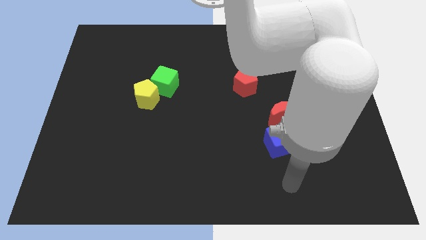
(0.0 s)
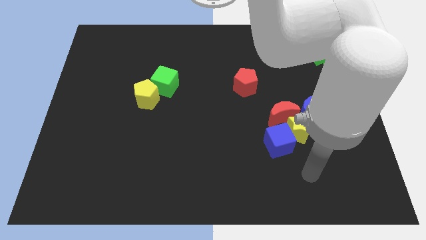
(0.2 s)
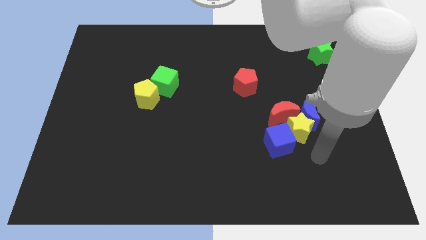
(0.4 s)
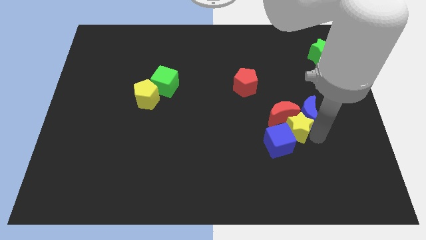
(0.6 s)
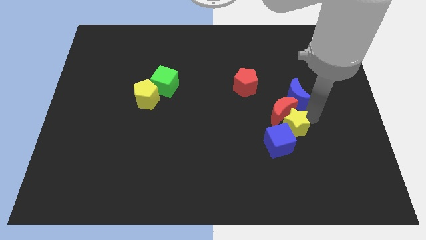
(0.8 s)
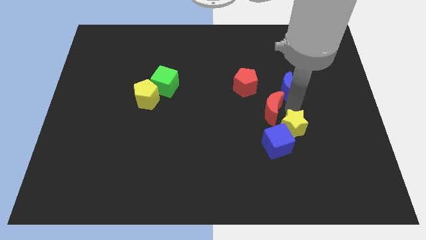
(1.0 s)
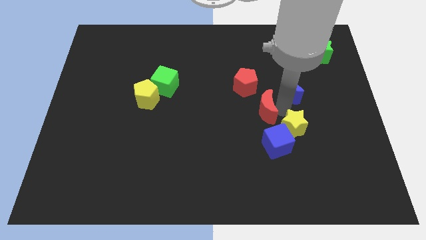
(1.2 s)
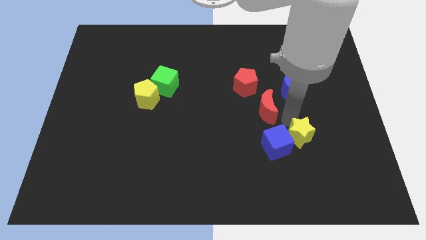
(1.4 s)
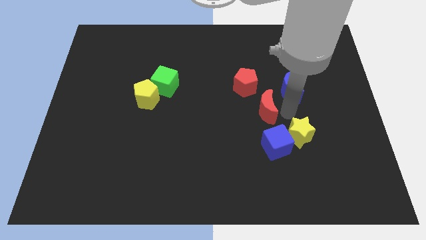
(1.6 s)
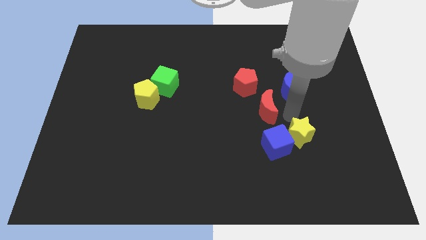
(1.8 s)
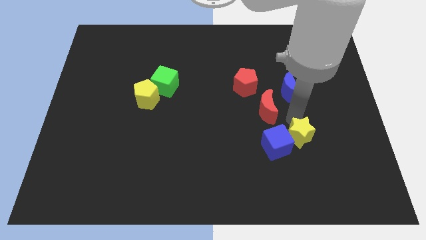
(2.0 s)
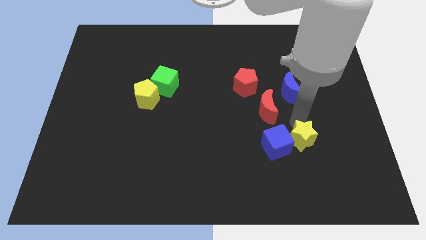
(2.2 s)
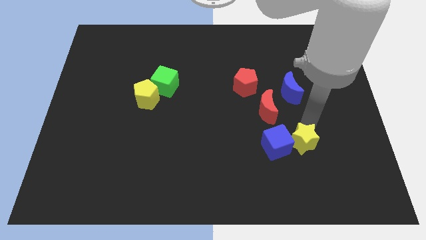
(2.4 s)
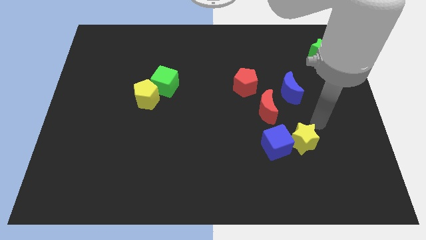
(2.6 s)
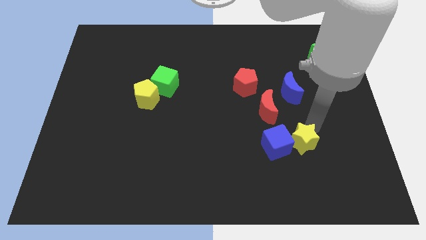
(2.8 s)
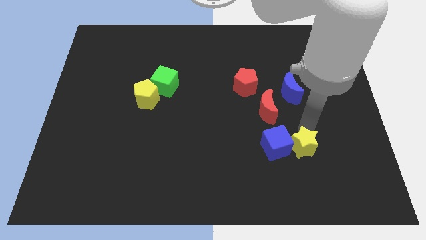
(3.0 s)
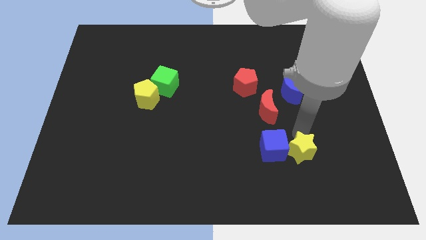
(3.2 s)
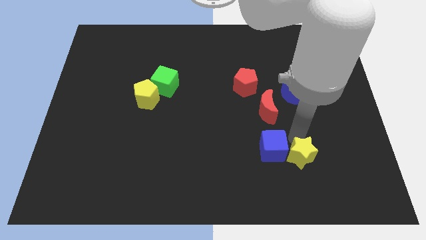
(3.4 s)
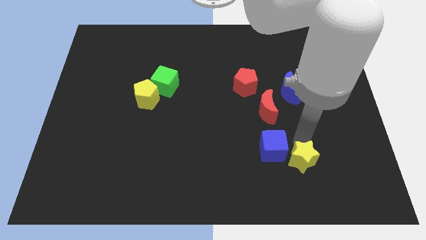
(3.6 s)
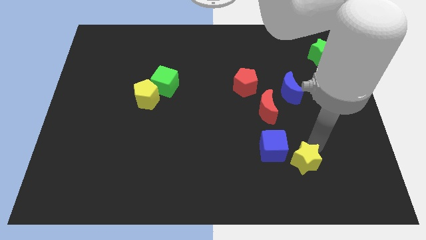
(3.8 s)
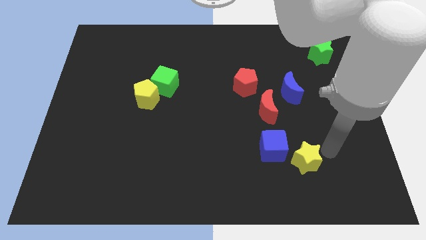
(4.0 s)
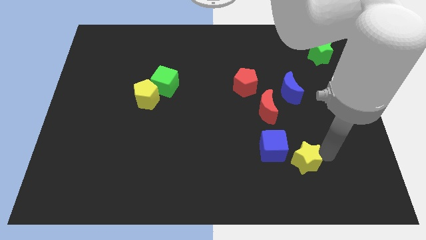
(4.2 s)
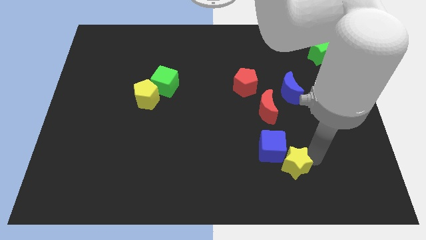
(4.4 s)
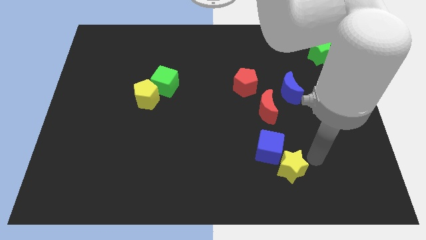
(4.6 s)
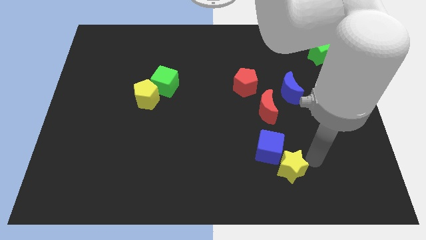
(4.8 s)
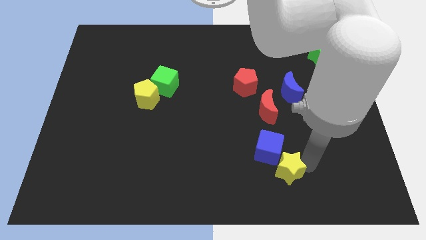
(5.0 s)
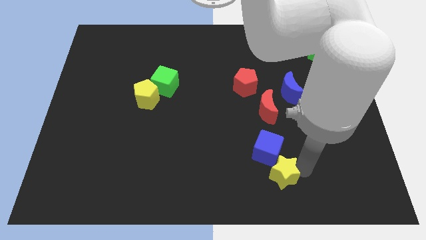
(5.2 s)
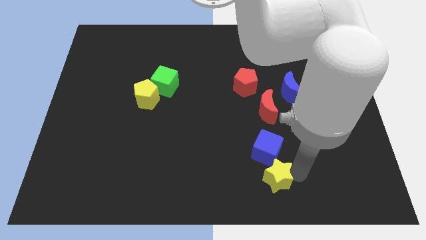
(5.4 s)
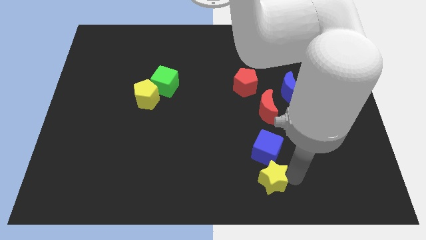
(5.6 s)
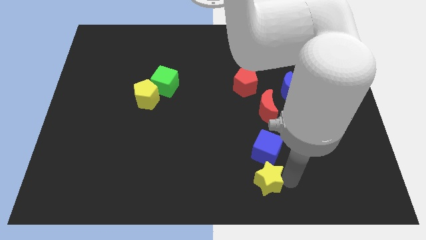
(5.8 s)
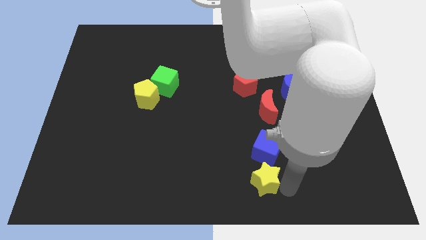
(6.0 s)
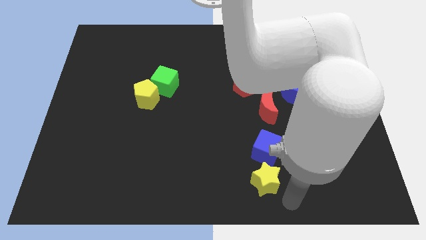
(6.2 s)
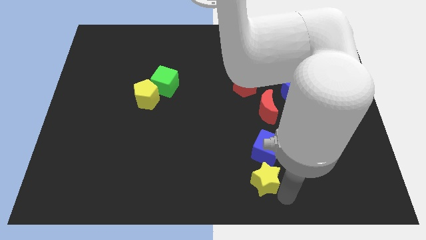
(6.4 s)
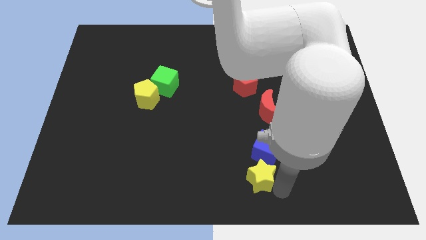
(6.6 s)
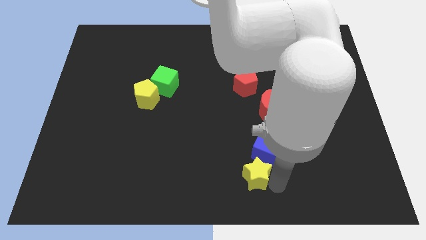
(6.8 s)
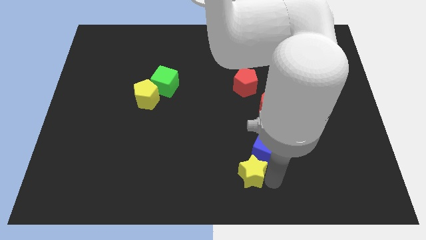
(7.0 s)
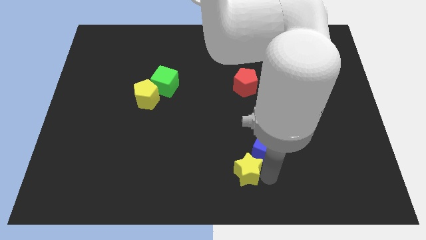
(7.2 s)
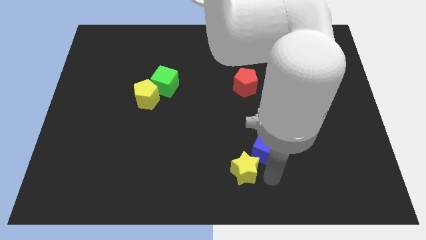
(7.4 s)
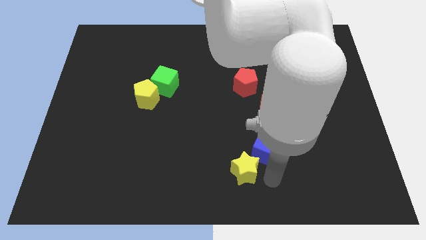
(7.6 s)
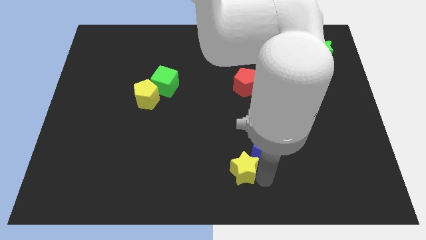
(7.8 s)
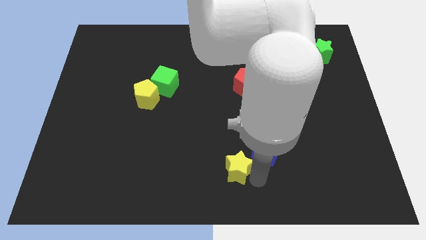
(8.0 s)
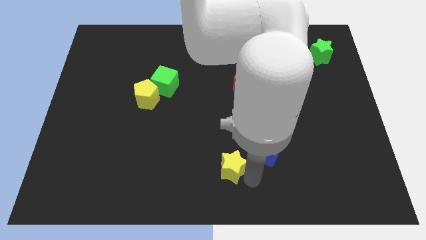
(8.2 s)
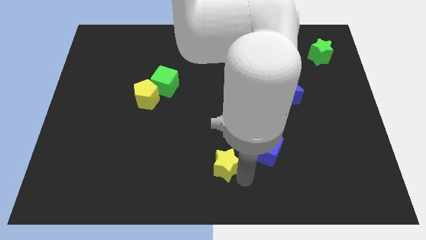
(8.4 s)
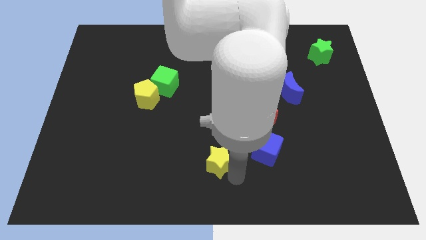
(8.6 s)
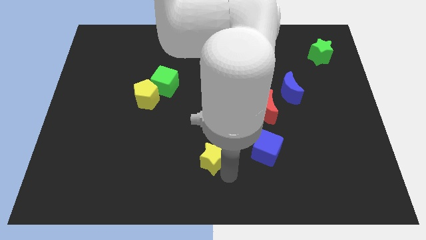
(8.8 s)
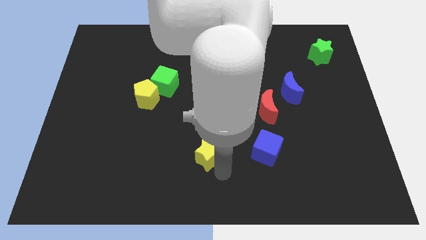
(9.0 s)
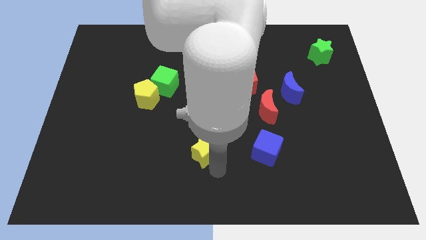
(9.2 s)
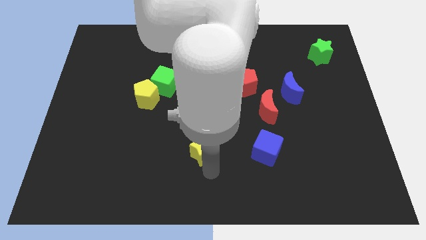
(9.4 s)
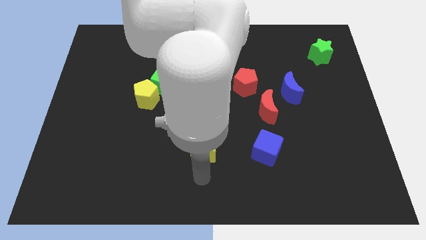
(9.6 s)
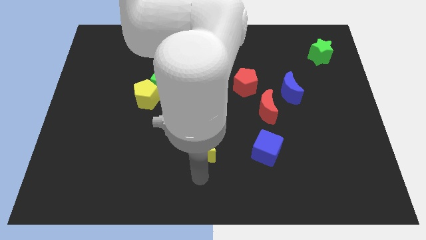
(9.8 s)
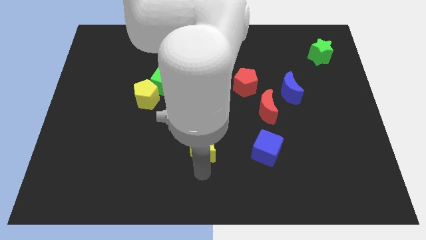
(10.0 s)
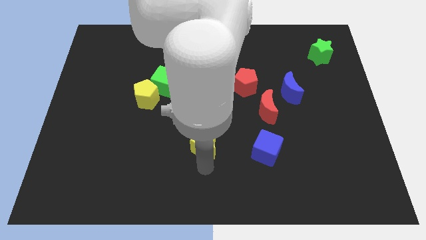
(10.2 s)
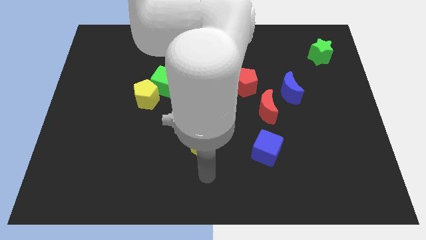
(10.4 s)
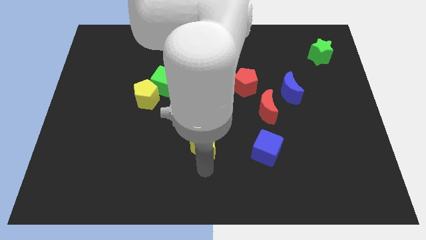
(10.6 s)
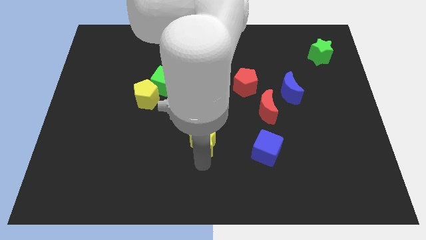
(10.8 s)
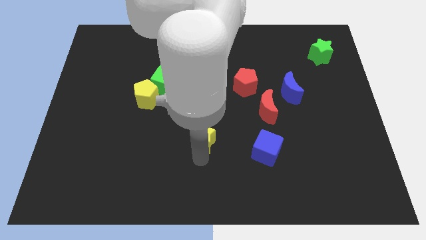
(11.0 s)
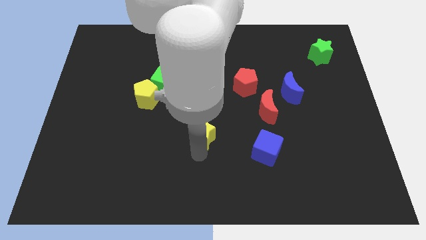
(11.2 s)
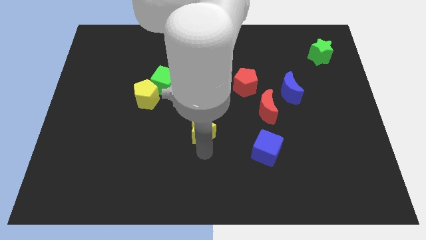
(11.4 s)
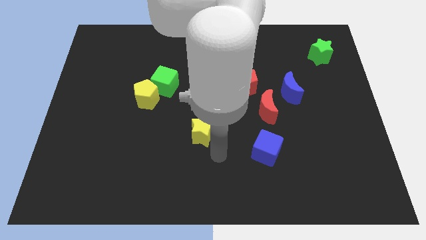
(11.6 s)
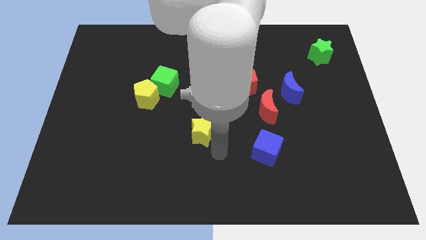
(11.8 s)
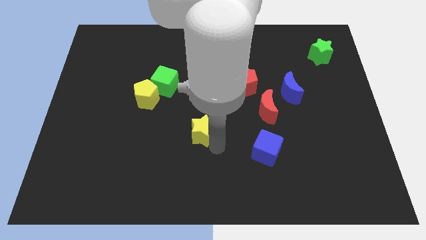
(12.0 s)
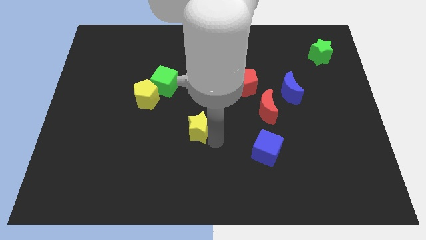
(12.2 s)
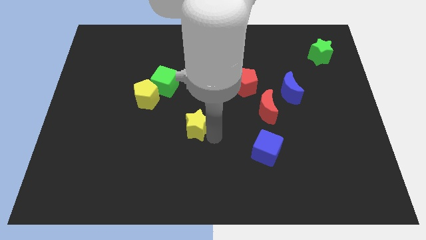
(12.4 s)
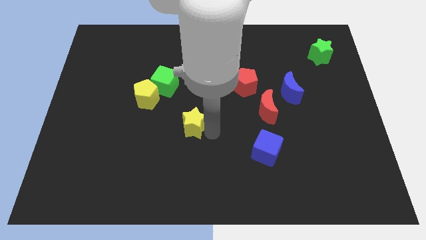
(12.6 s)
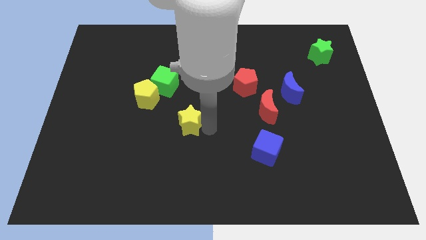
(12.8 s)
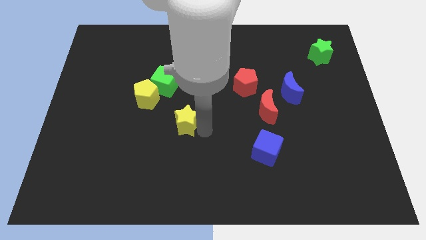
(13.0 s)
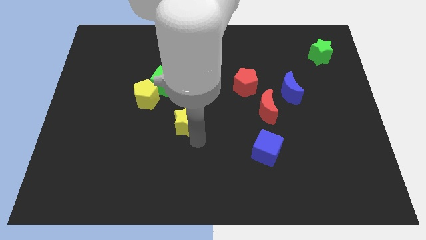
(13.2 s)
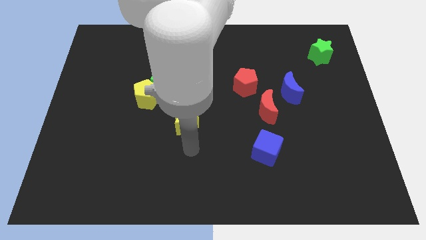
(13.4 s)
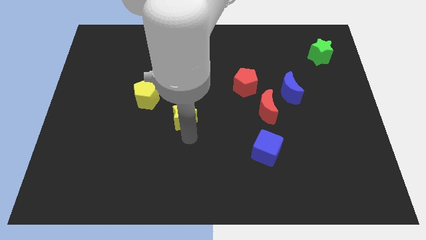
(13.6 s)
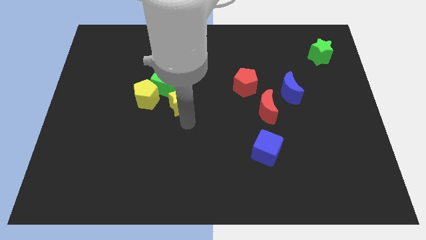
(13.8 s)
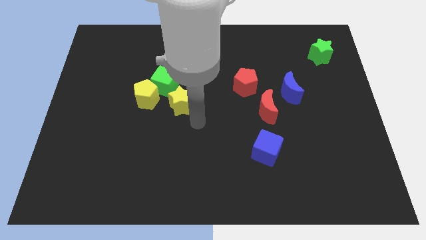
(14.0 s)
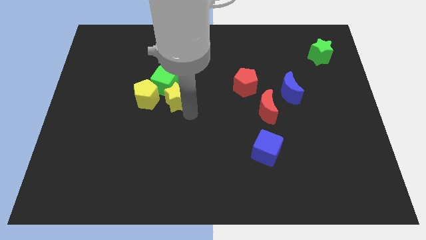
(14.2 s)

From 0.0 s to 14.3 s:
move the yellow star next to the green cube
